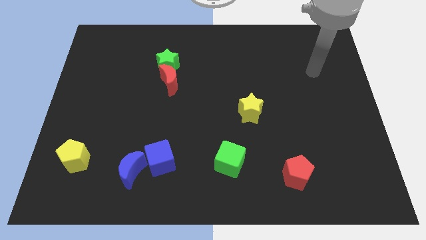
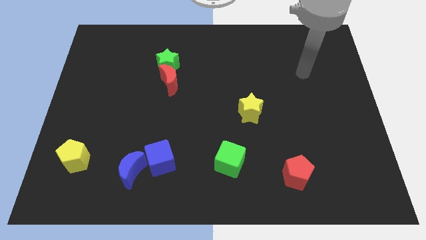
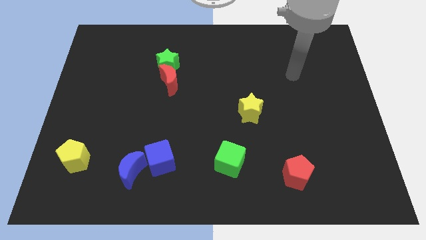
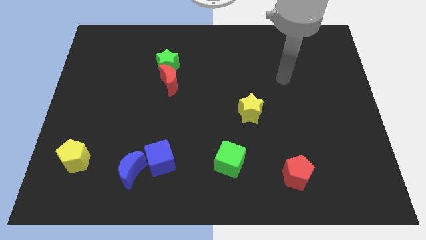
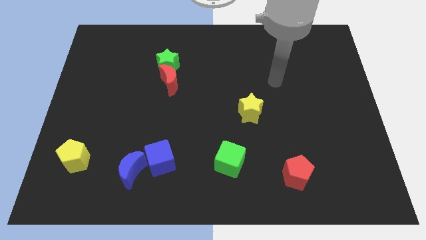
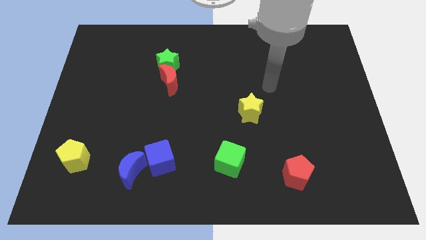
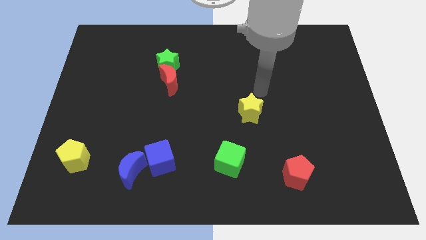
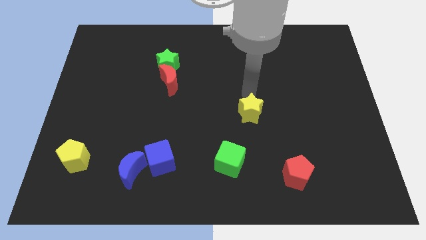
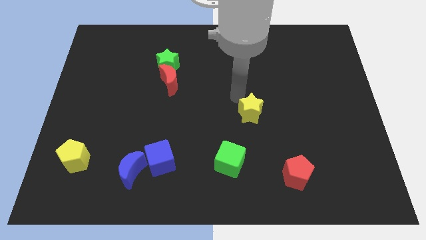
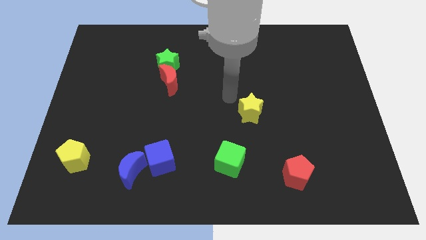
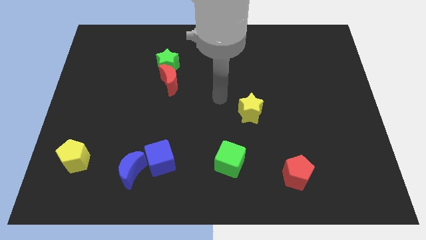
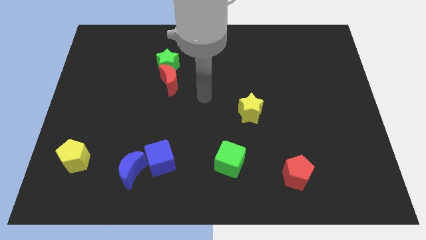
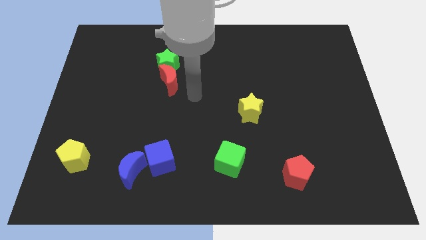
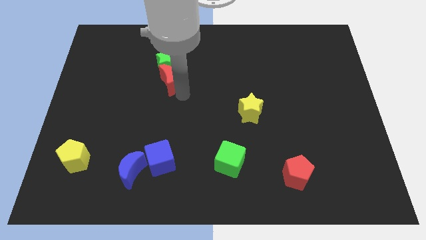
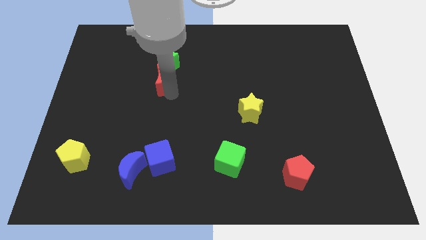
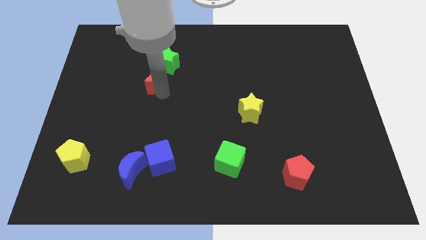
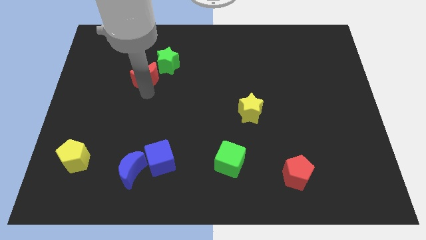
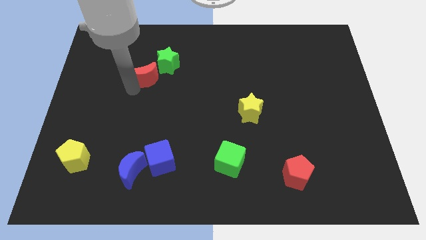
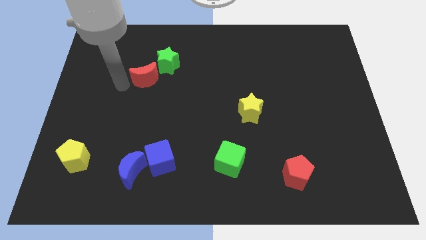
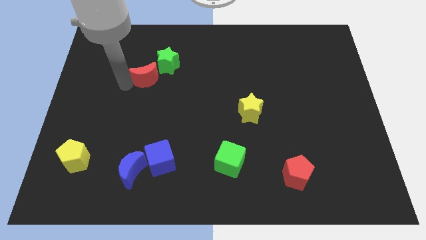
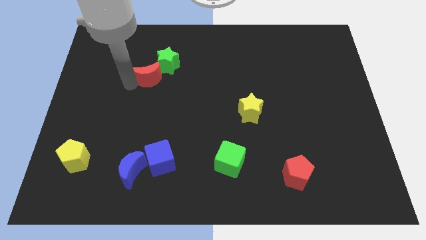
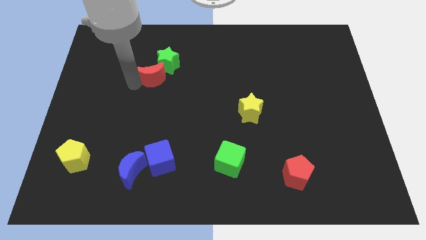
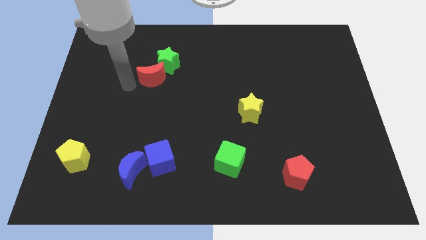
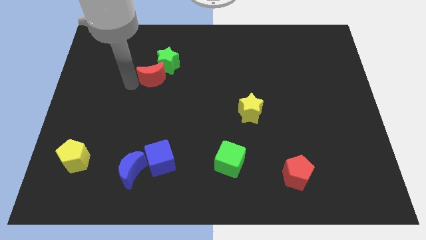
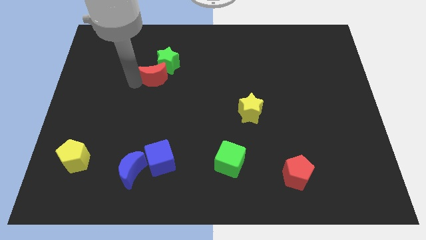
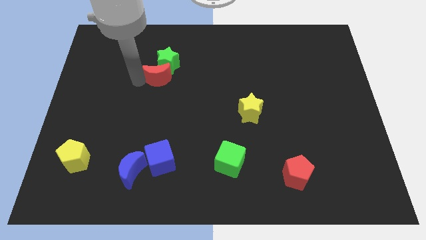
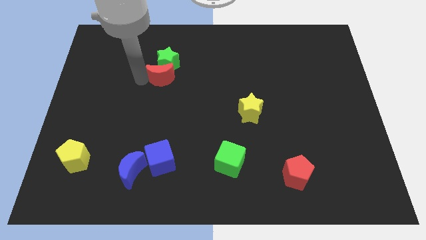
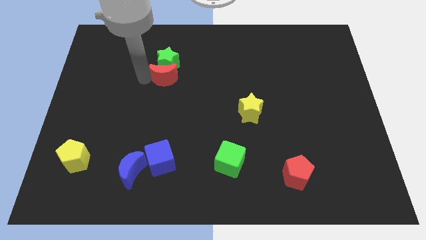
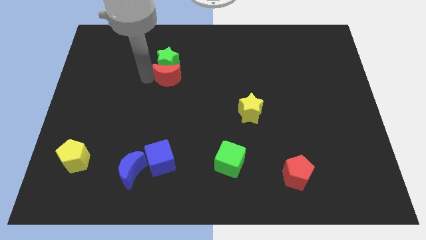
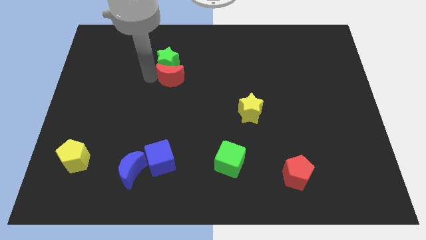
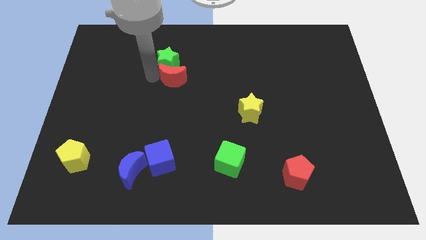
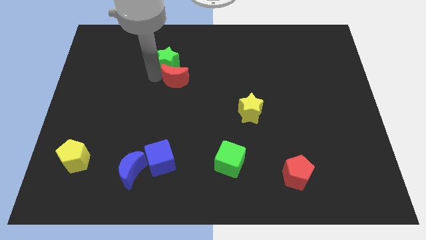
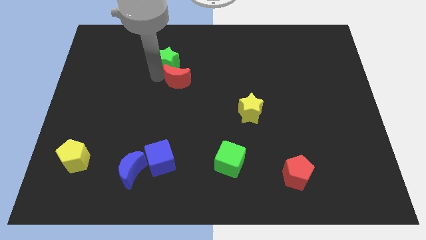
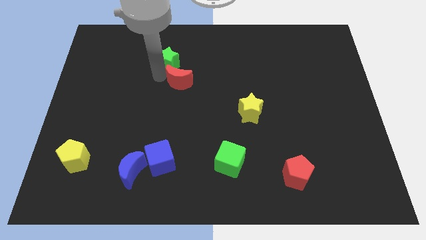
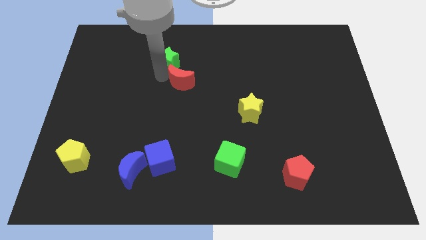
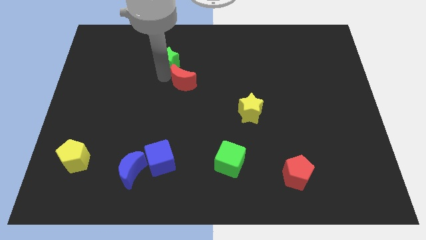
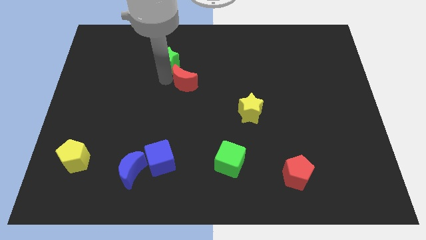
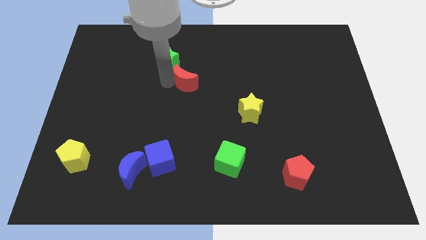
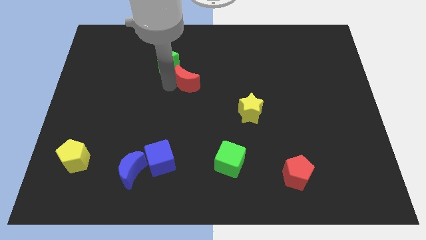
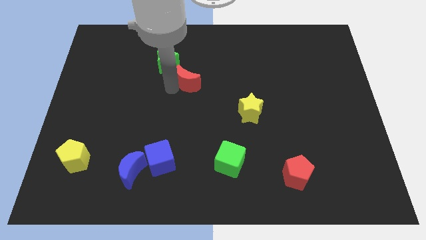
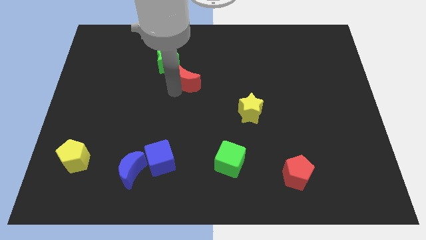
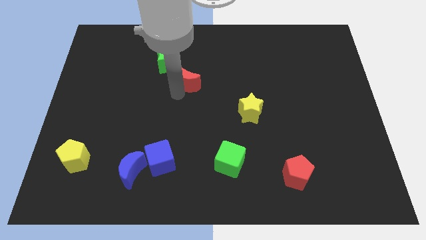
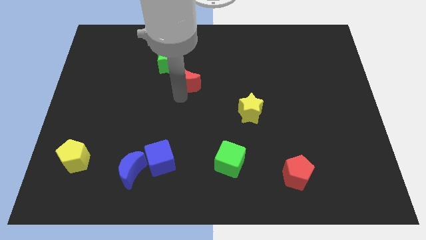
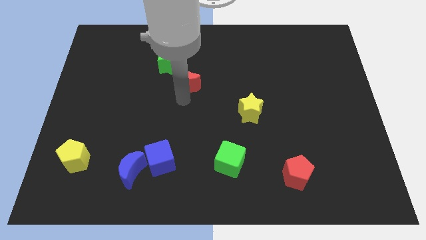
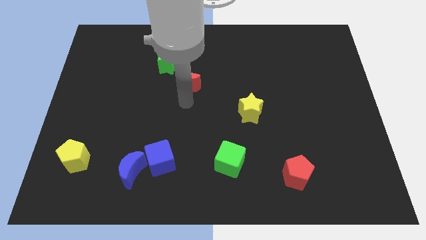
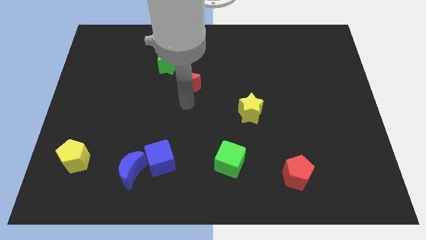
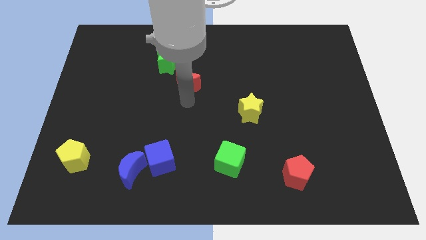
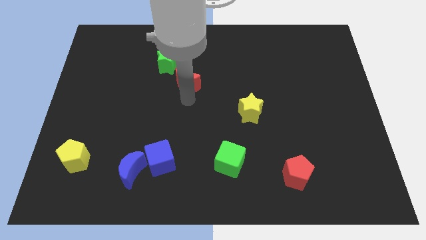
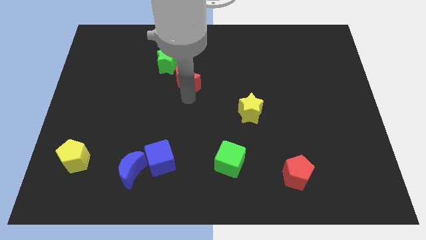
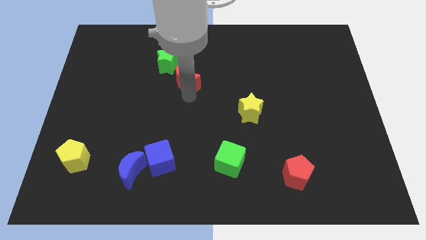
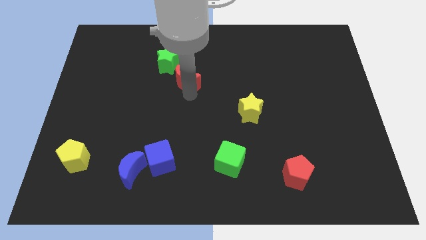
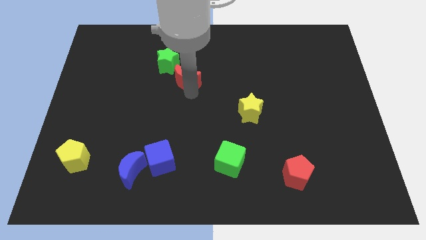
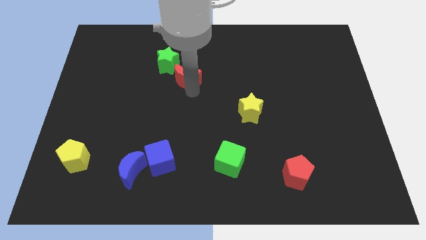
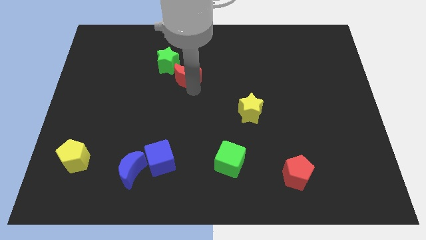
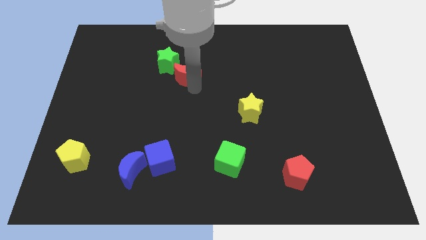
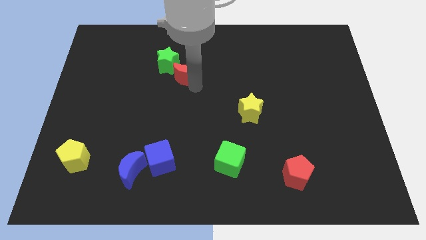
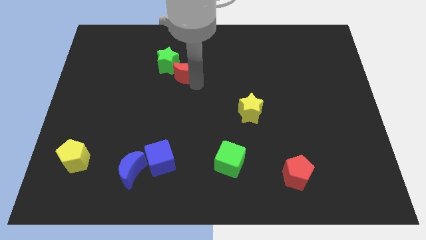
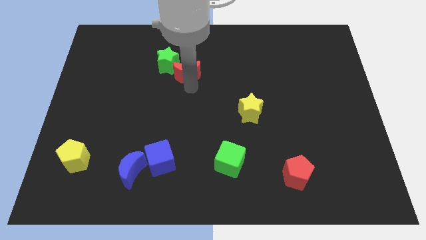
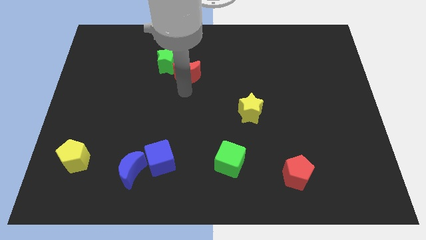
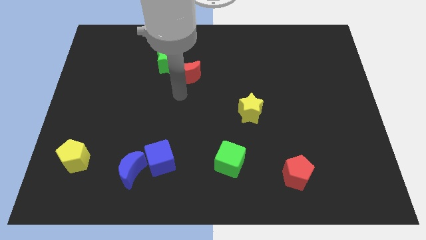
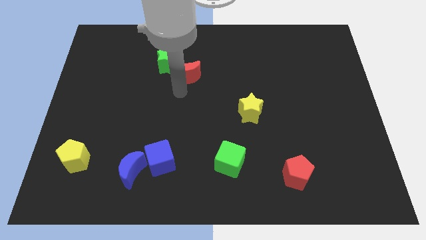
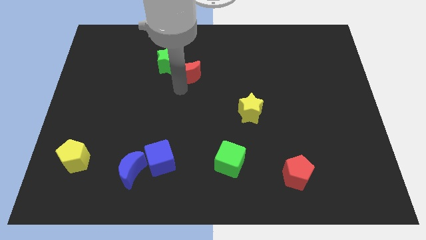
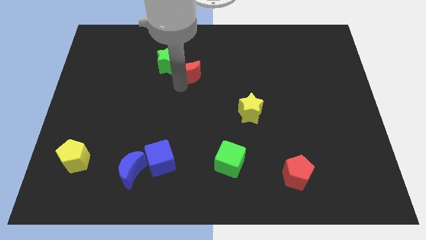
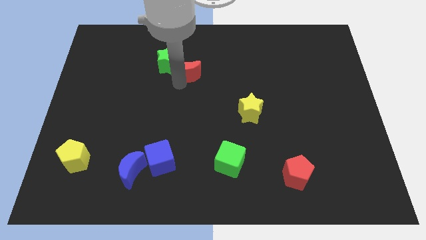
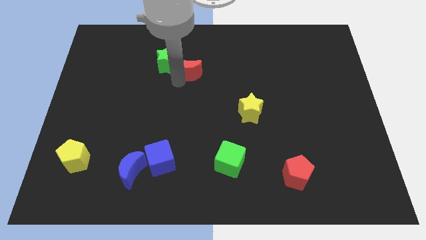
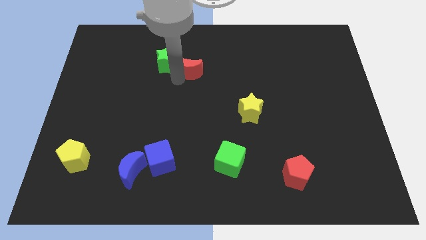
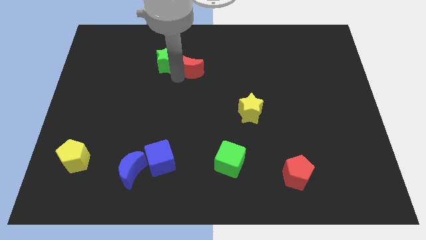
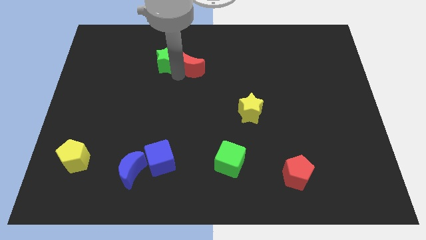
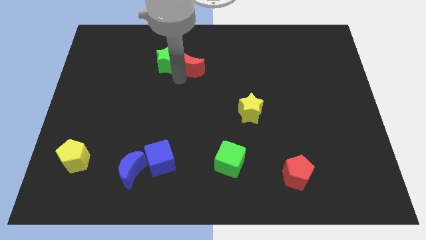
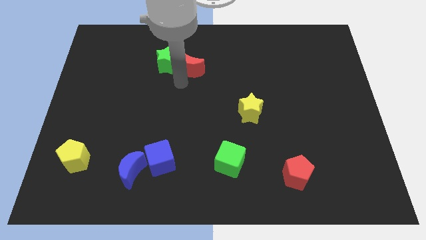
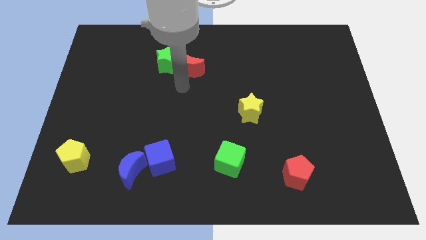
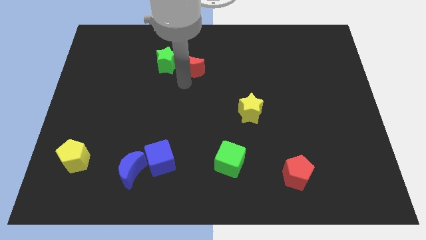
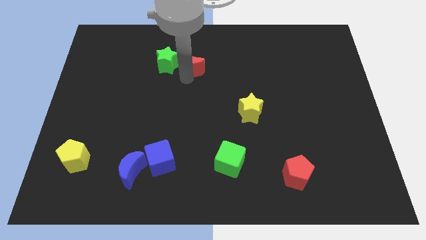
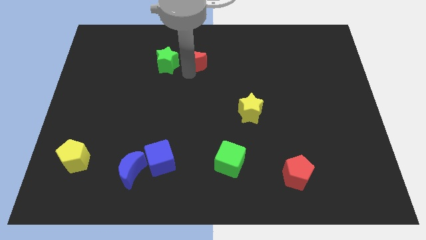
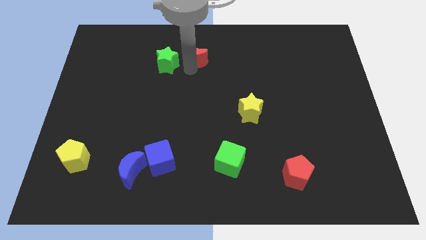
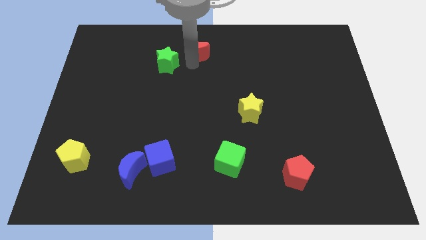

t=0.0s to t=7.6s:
move the red moon to the top
